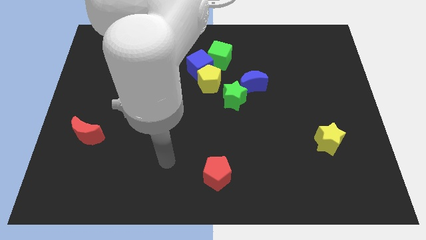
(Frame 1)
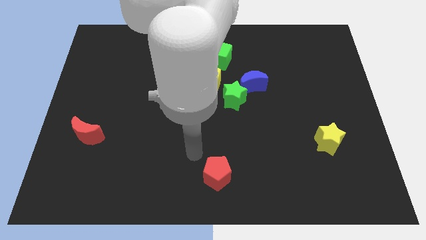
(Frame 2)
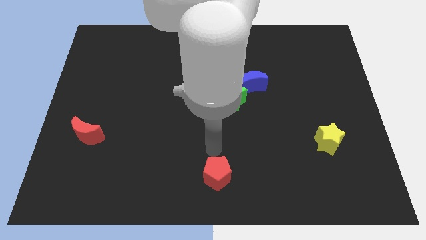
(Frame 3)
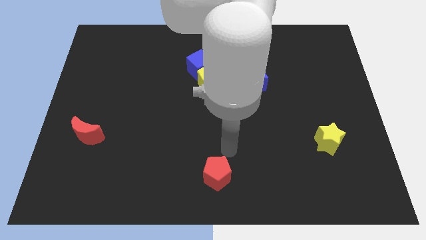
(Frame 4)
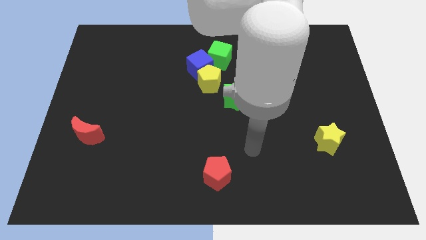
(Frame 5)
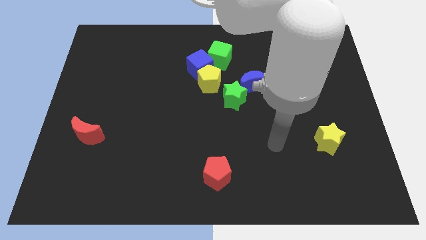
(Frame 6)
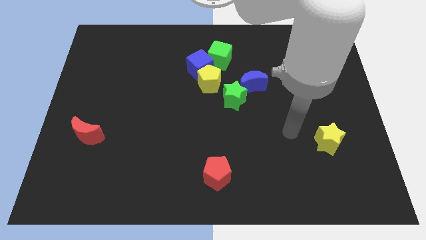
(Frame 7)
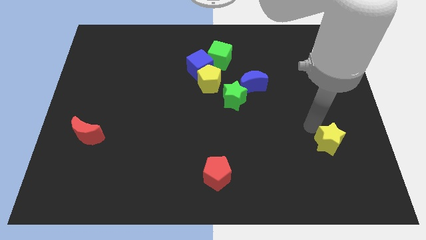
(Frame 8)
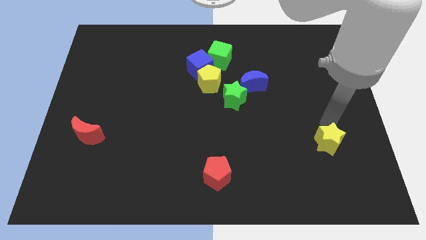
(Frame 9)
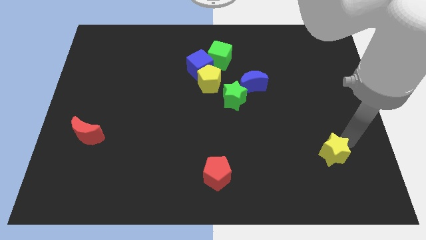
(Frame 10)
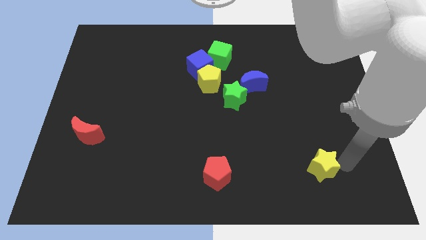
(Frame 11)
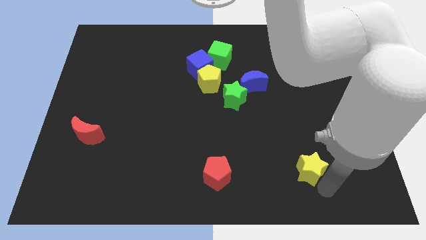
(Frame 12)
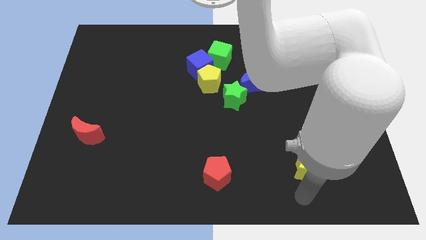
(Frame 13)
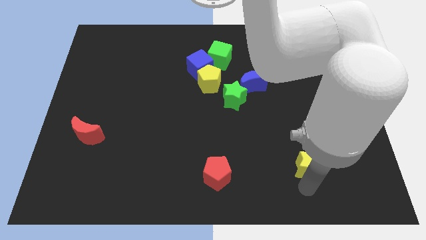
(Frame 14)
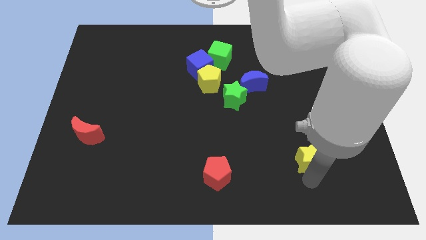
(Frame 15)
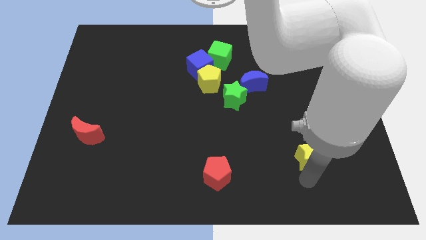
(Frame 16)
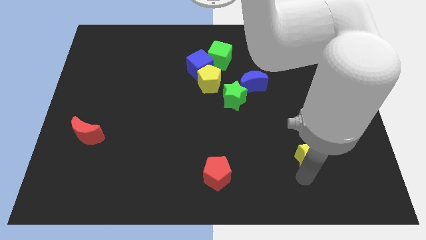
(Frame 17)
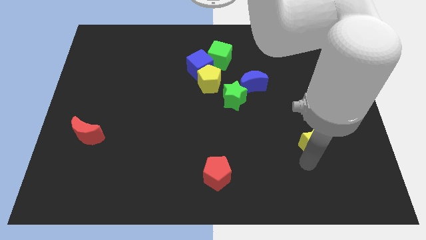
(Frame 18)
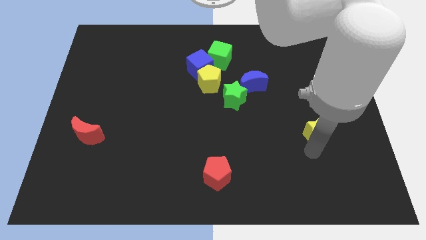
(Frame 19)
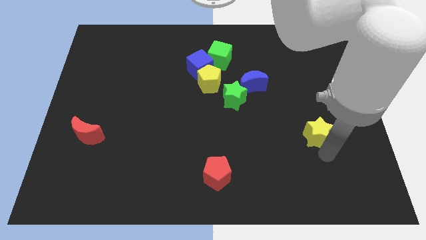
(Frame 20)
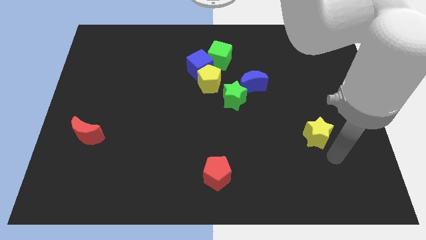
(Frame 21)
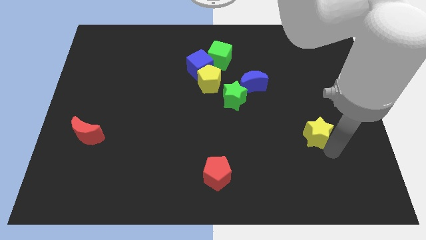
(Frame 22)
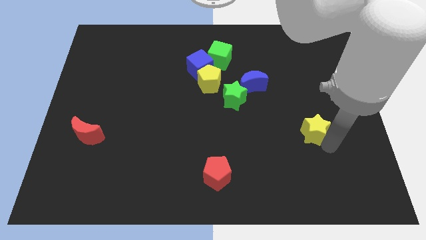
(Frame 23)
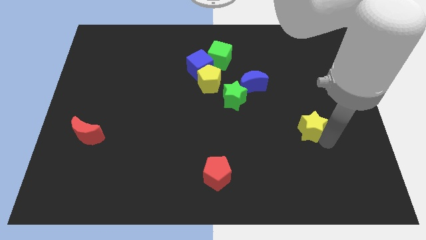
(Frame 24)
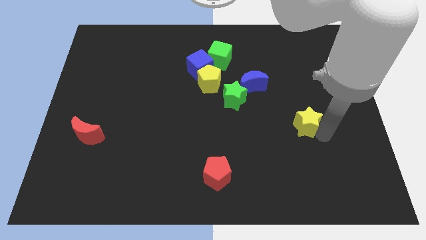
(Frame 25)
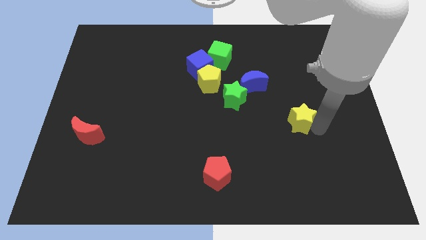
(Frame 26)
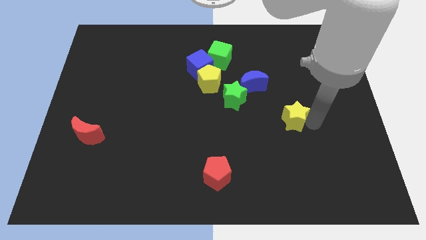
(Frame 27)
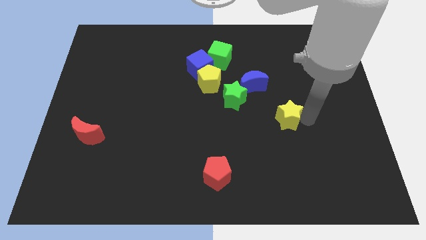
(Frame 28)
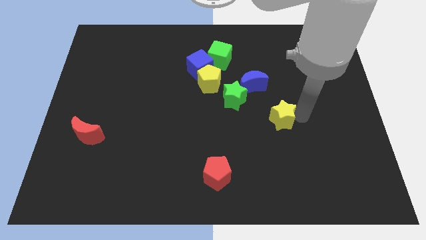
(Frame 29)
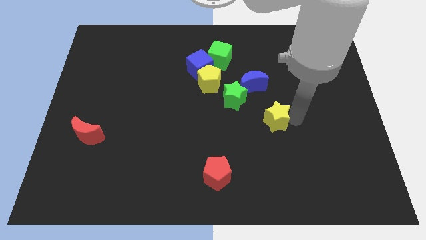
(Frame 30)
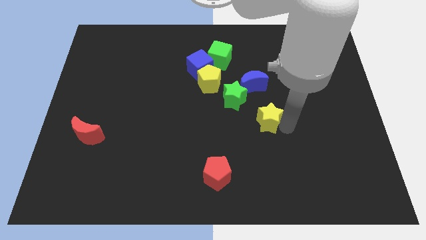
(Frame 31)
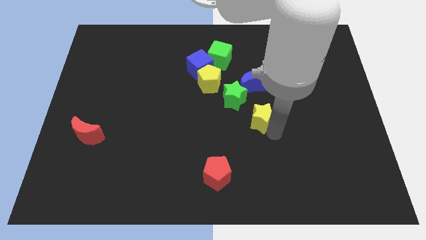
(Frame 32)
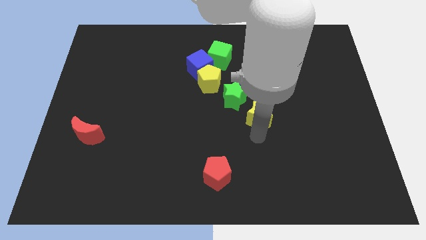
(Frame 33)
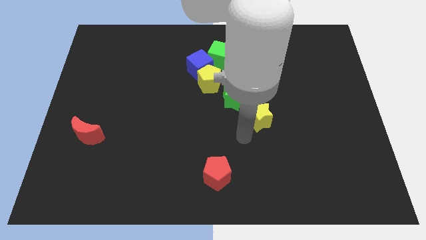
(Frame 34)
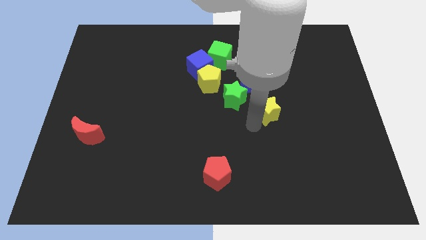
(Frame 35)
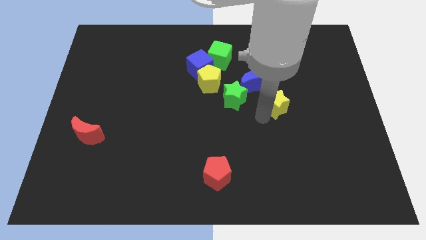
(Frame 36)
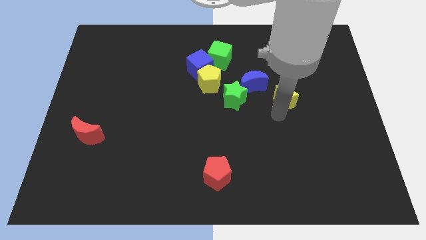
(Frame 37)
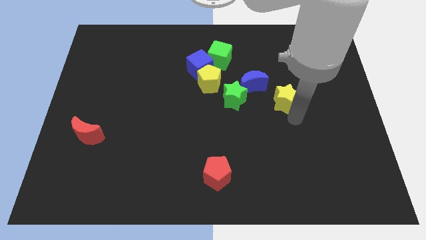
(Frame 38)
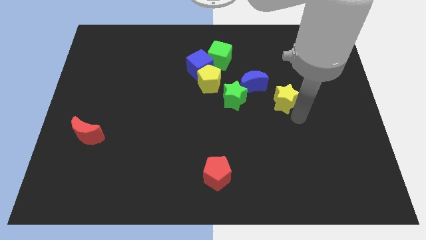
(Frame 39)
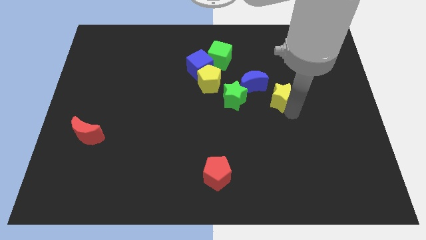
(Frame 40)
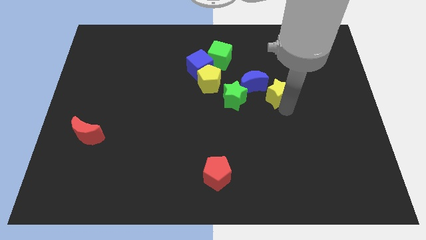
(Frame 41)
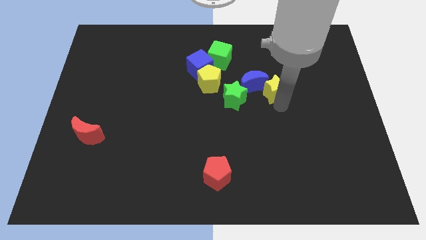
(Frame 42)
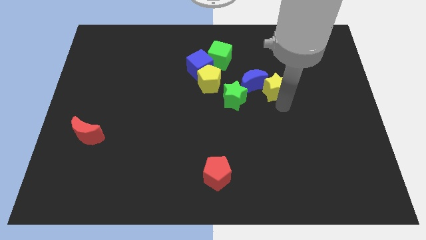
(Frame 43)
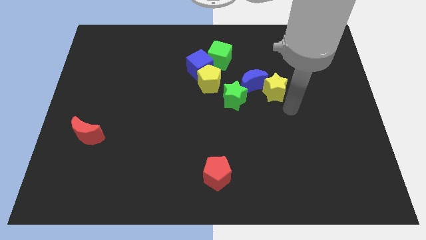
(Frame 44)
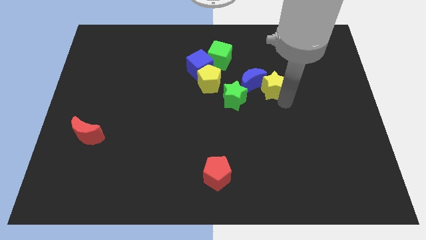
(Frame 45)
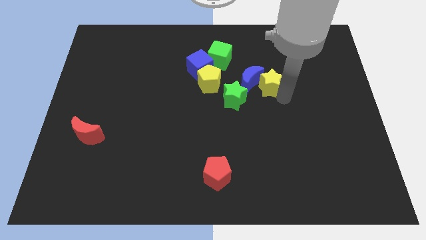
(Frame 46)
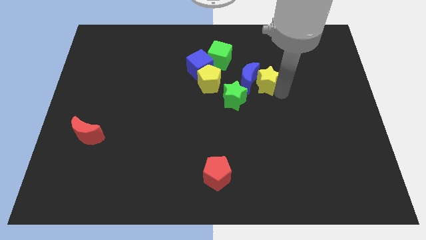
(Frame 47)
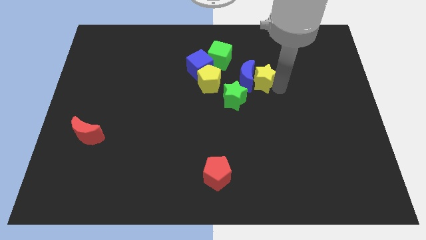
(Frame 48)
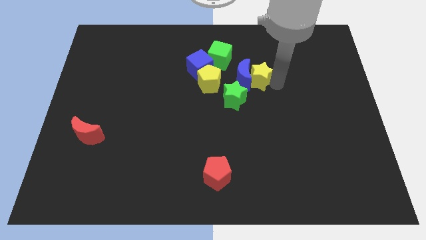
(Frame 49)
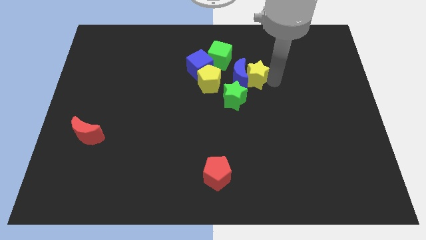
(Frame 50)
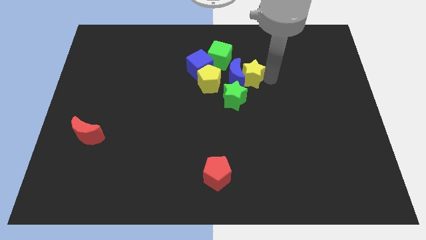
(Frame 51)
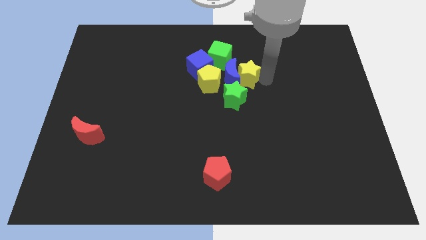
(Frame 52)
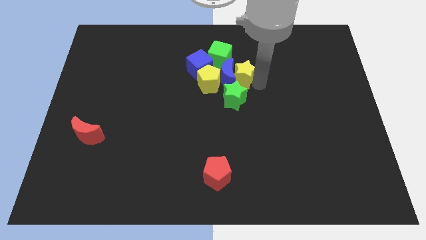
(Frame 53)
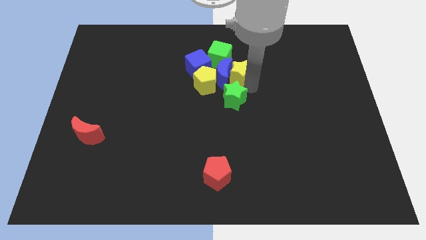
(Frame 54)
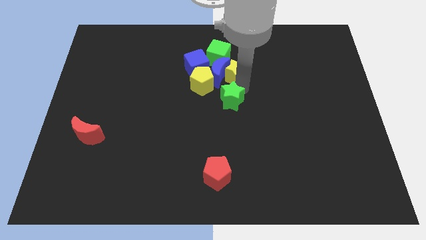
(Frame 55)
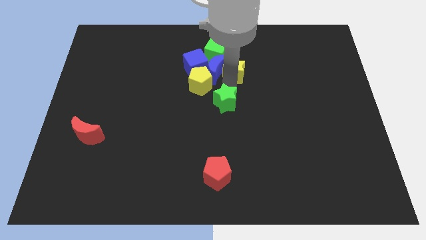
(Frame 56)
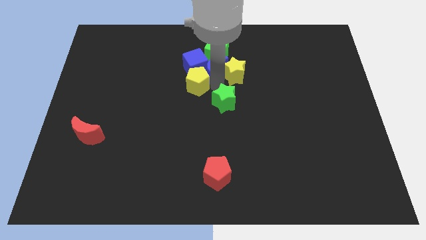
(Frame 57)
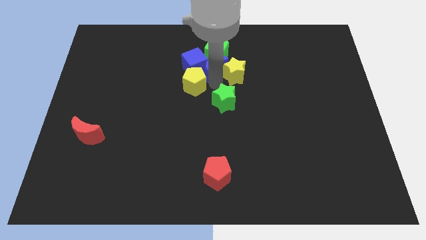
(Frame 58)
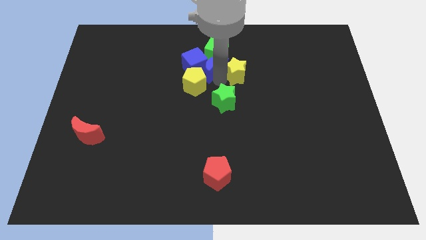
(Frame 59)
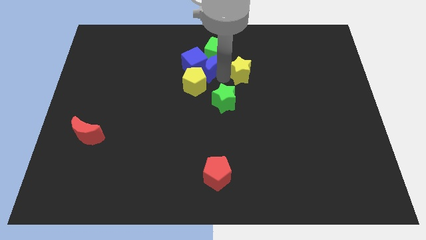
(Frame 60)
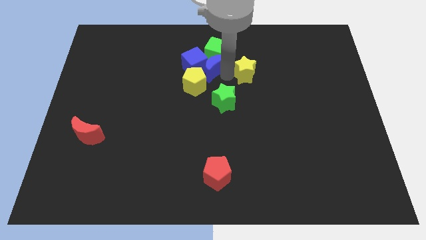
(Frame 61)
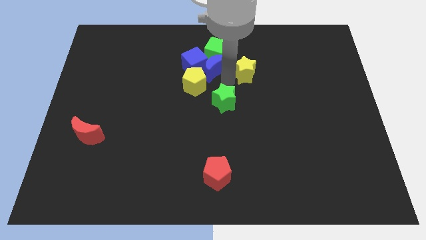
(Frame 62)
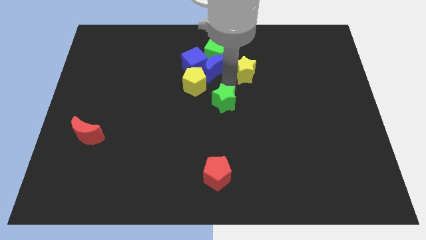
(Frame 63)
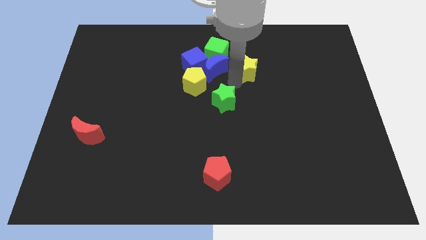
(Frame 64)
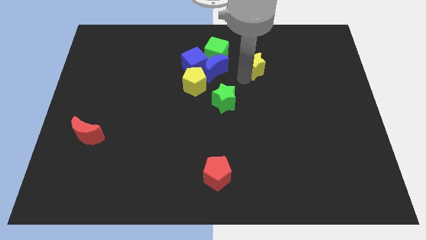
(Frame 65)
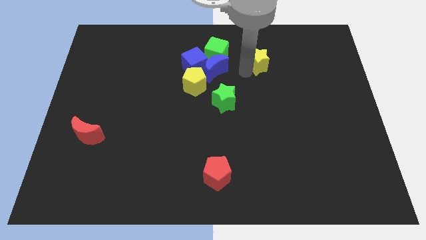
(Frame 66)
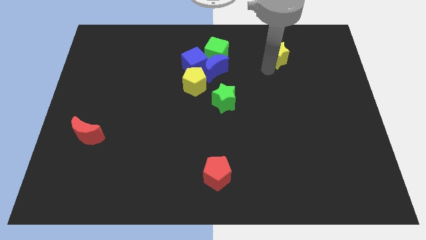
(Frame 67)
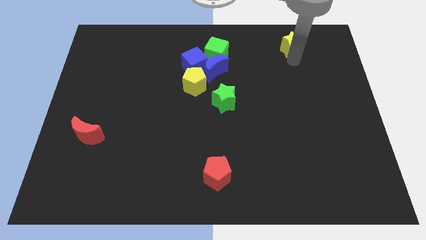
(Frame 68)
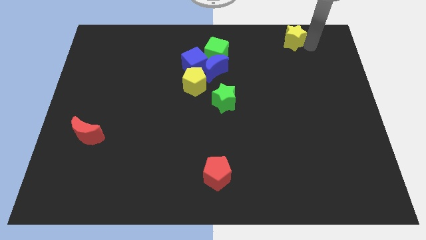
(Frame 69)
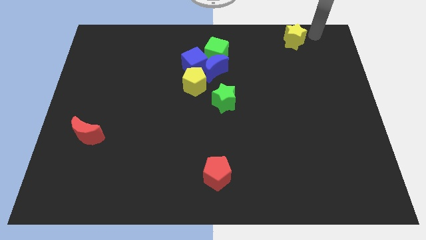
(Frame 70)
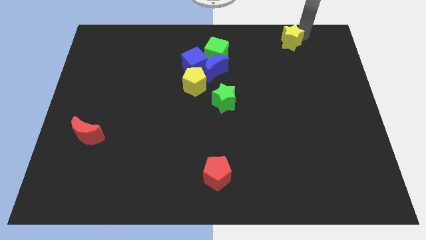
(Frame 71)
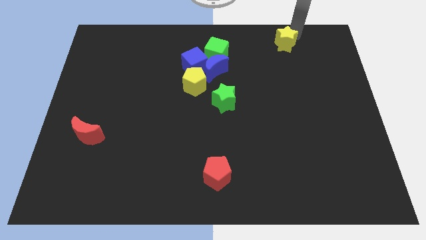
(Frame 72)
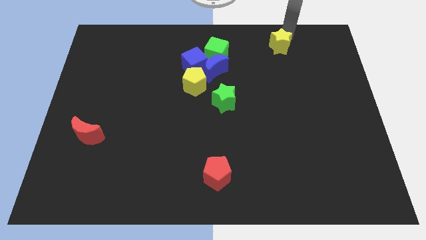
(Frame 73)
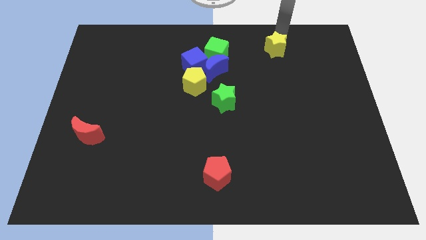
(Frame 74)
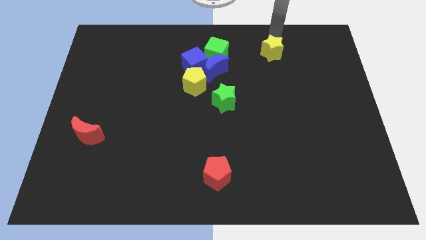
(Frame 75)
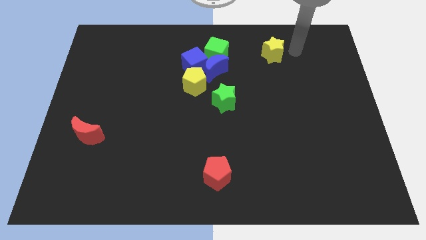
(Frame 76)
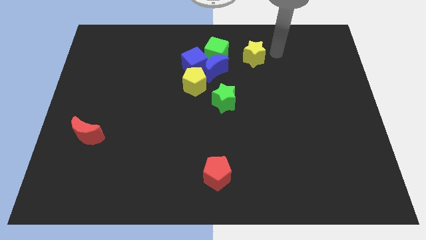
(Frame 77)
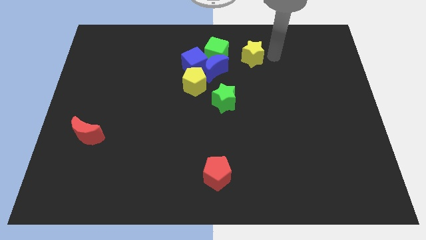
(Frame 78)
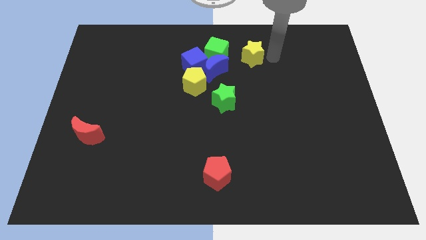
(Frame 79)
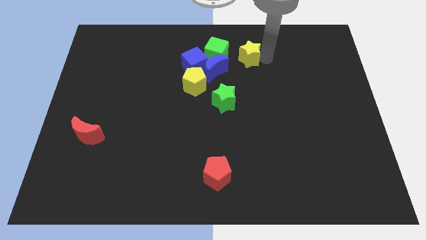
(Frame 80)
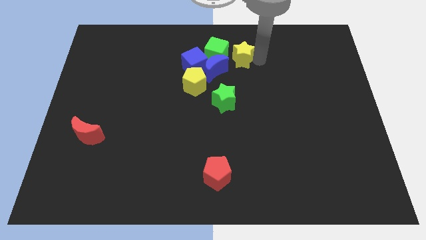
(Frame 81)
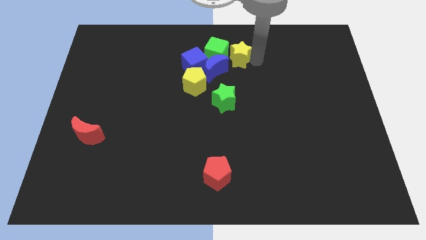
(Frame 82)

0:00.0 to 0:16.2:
push the yellow star to the green cube
